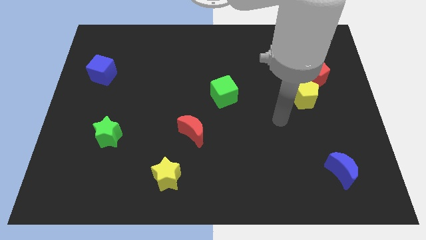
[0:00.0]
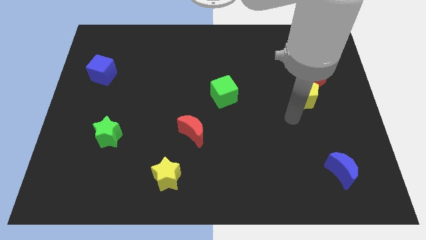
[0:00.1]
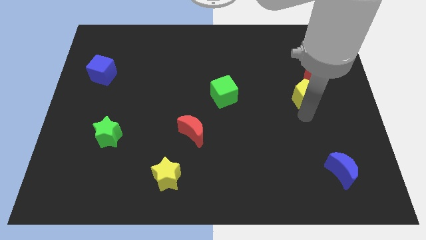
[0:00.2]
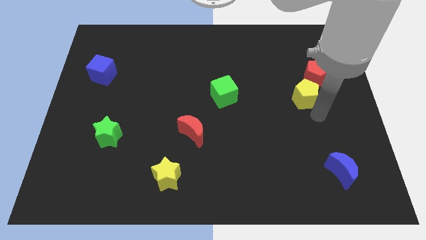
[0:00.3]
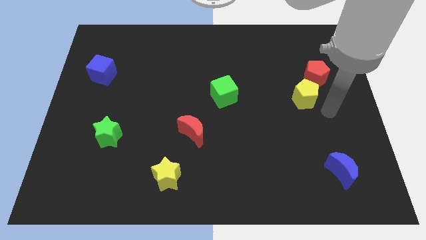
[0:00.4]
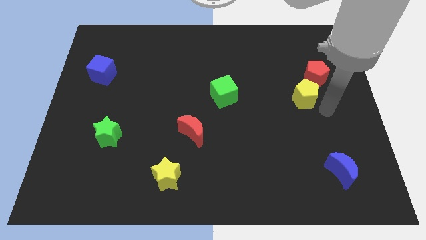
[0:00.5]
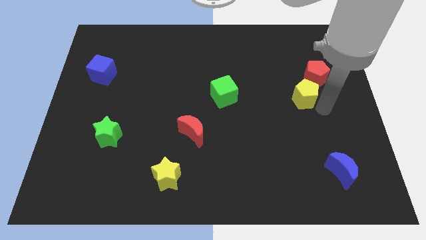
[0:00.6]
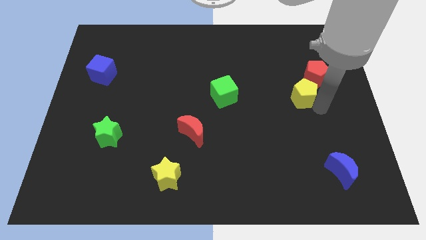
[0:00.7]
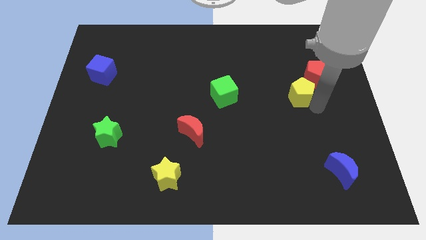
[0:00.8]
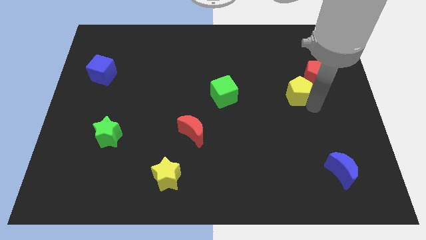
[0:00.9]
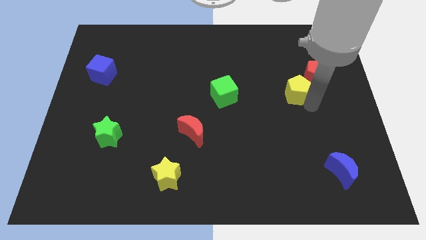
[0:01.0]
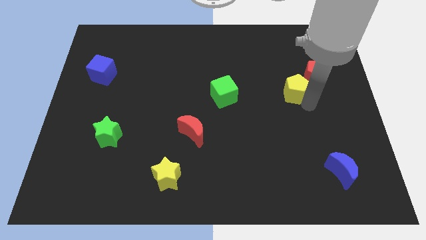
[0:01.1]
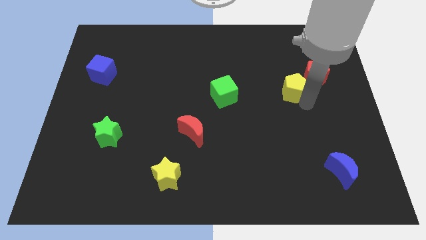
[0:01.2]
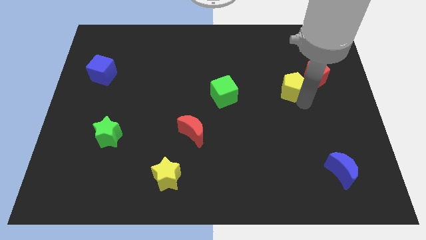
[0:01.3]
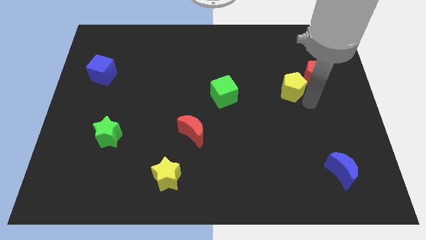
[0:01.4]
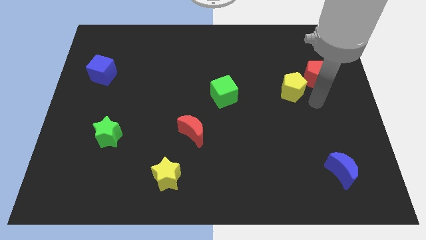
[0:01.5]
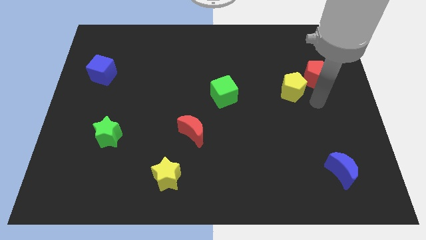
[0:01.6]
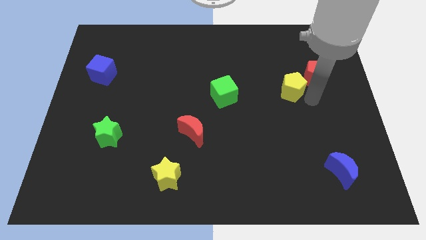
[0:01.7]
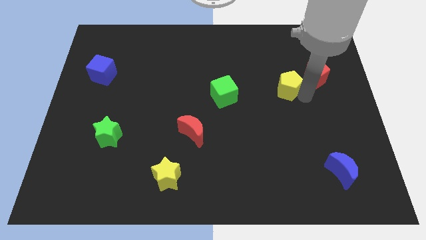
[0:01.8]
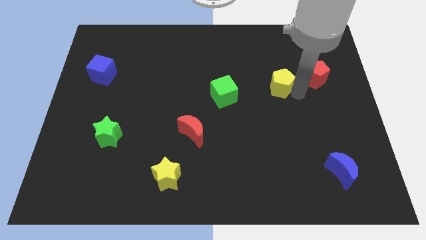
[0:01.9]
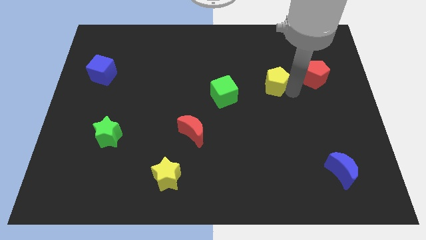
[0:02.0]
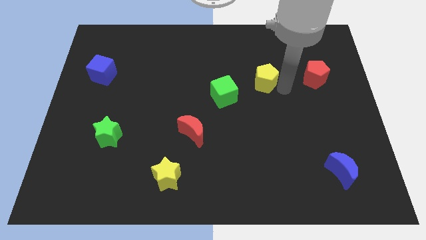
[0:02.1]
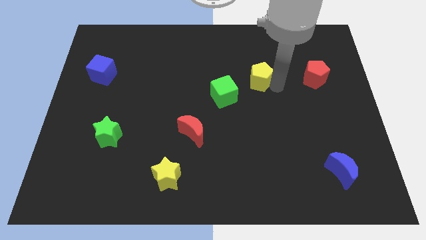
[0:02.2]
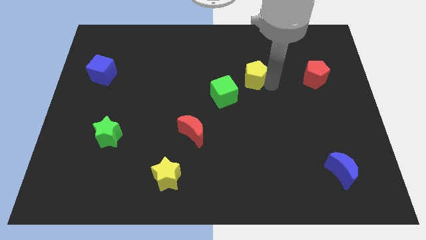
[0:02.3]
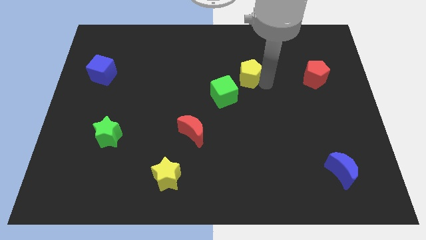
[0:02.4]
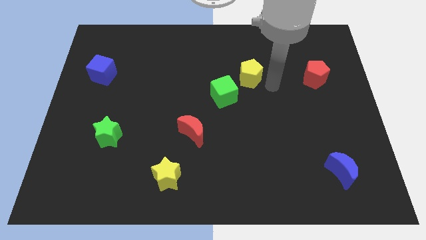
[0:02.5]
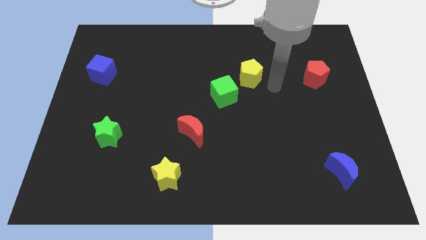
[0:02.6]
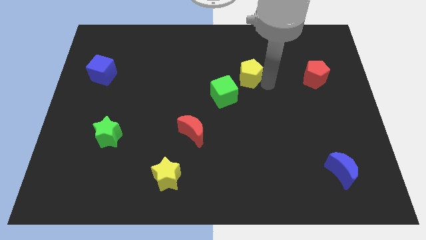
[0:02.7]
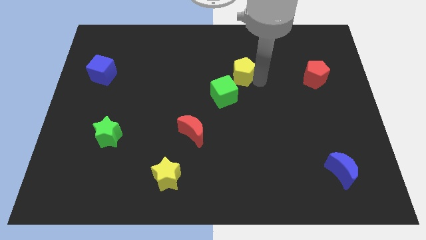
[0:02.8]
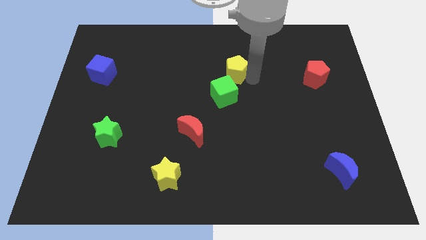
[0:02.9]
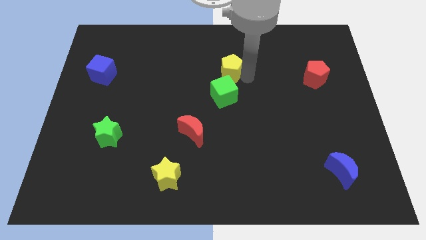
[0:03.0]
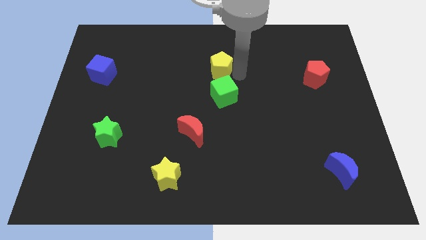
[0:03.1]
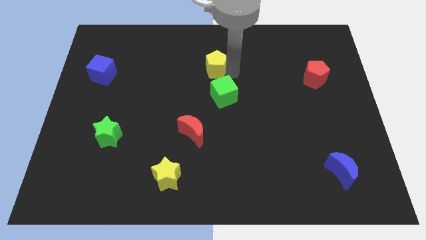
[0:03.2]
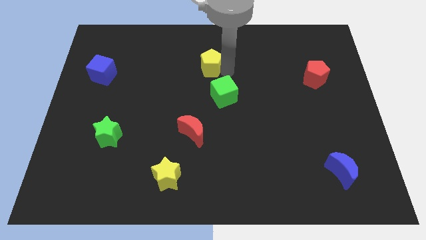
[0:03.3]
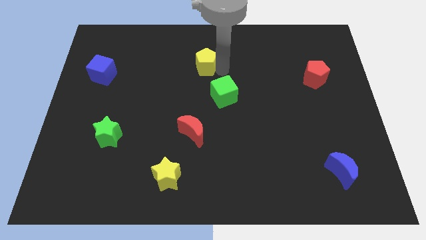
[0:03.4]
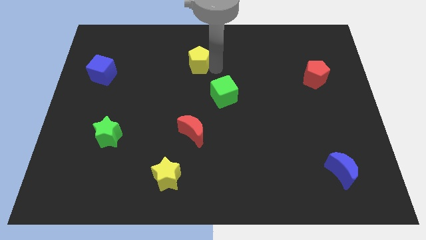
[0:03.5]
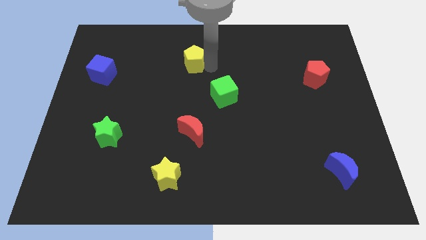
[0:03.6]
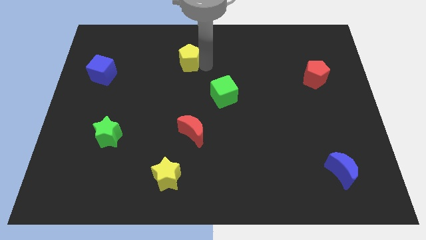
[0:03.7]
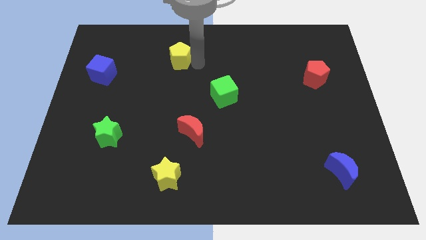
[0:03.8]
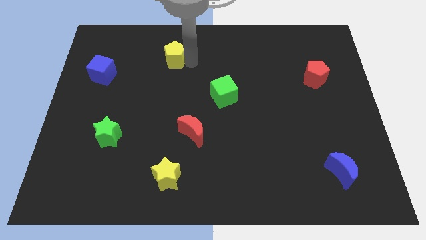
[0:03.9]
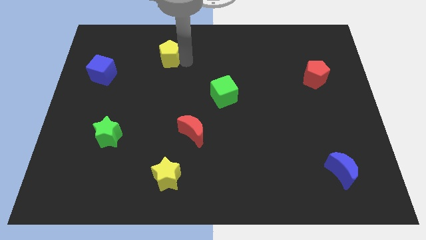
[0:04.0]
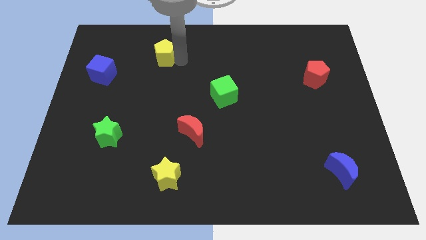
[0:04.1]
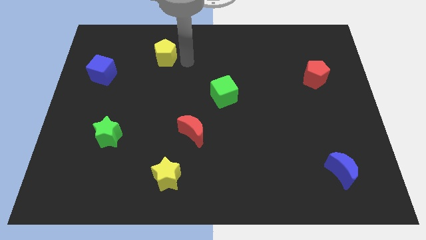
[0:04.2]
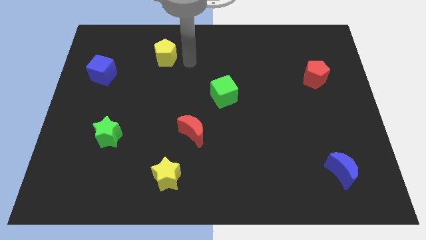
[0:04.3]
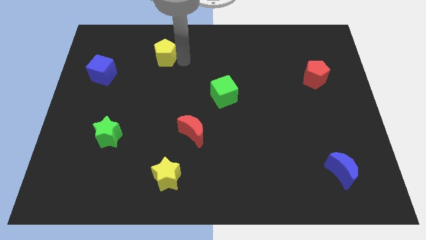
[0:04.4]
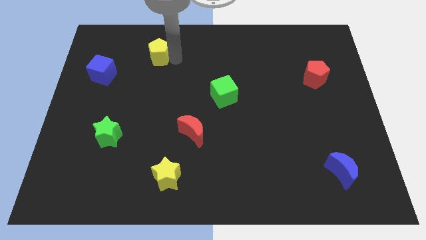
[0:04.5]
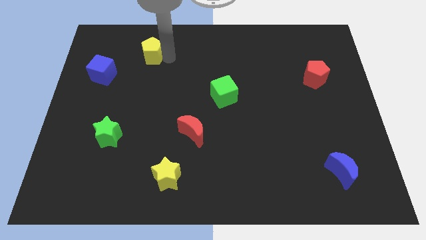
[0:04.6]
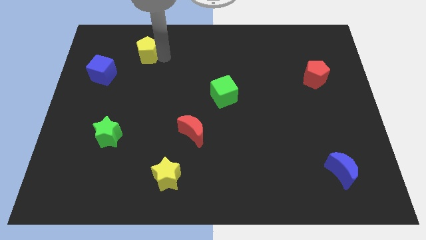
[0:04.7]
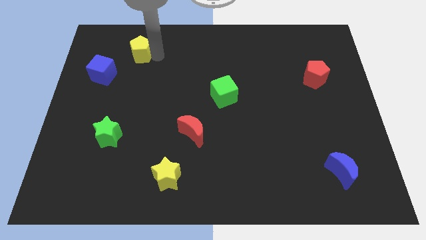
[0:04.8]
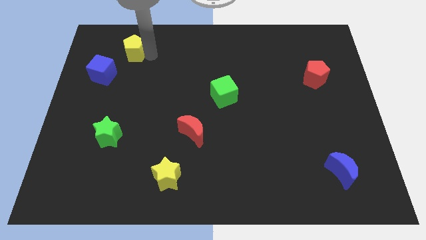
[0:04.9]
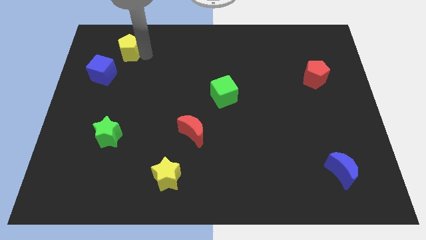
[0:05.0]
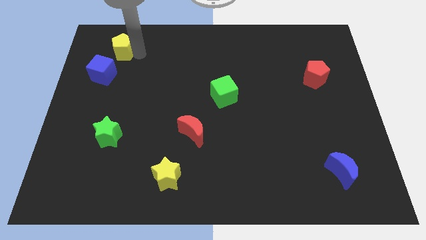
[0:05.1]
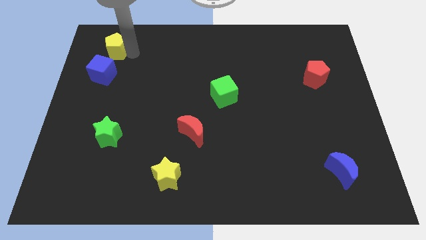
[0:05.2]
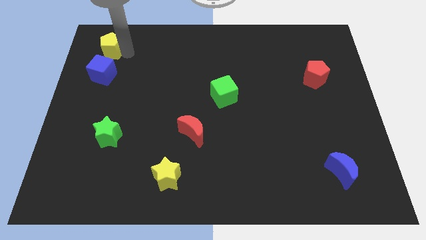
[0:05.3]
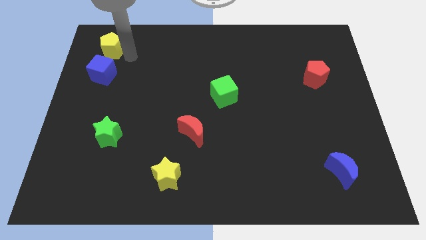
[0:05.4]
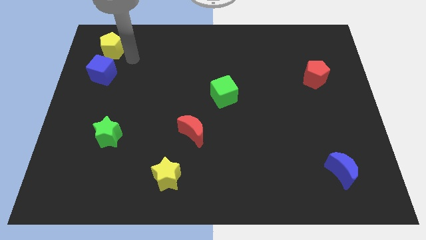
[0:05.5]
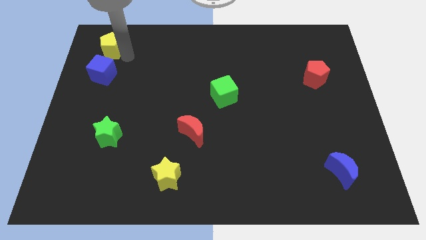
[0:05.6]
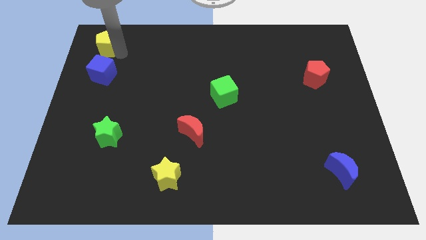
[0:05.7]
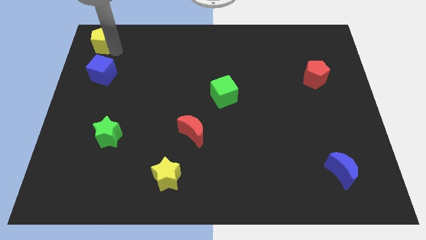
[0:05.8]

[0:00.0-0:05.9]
move the yellow pentagon to the upper left corner
